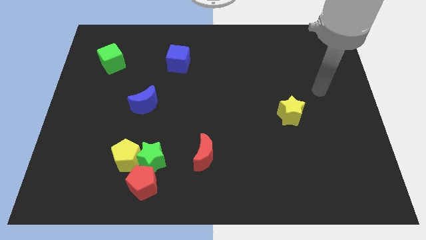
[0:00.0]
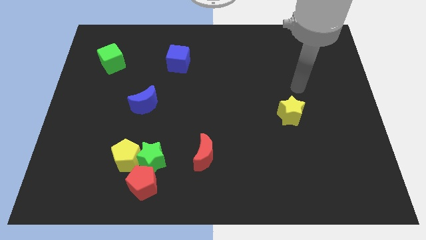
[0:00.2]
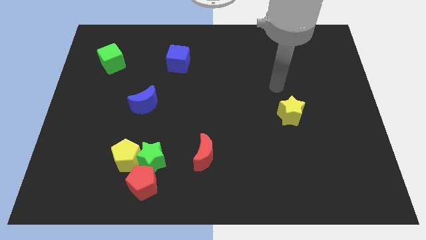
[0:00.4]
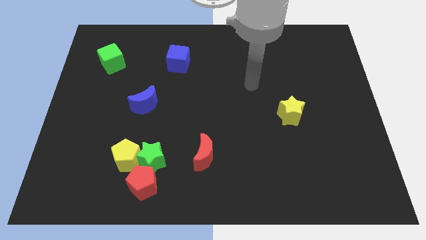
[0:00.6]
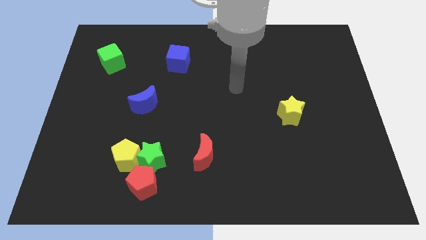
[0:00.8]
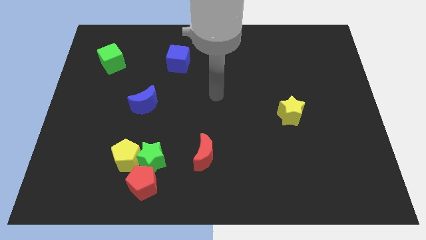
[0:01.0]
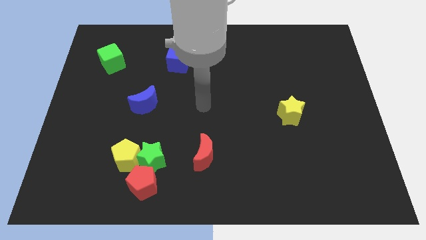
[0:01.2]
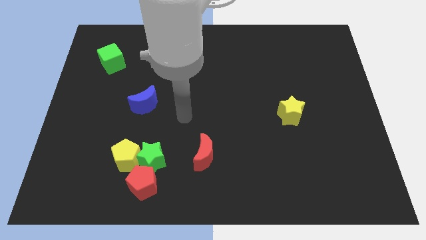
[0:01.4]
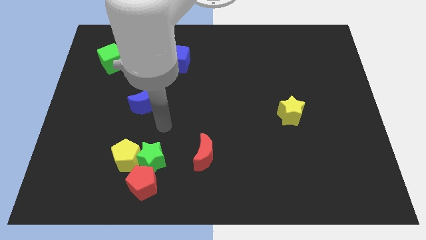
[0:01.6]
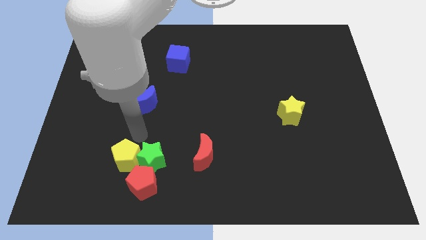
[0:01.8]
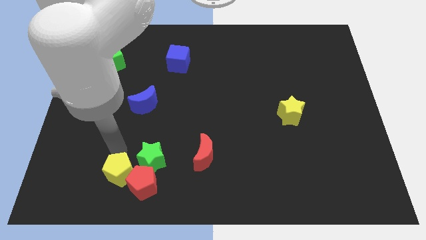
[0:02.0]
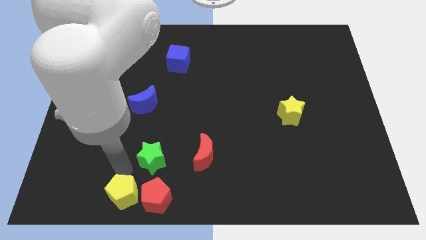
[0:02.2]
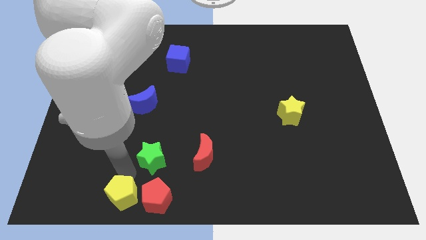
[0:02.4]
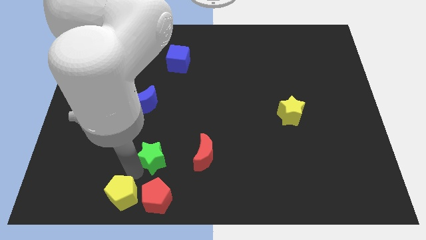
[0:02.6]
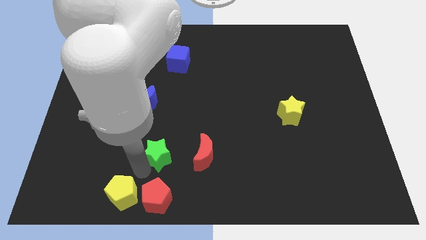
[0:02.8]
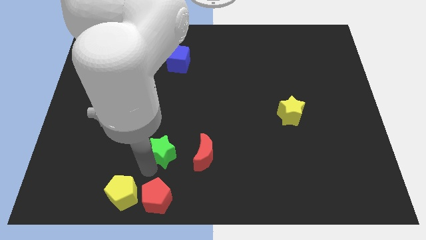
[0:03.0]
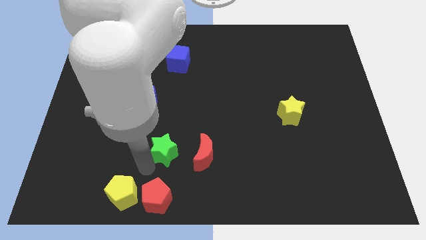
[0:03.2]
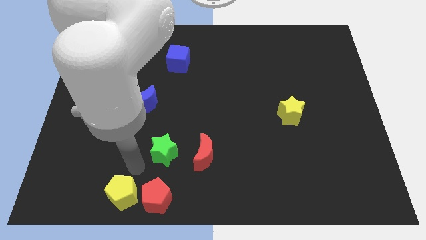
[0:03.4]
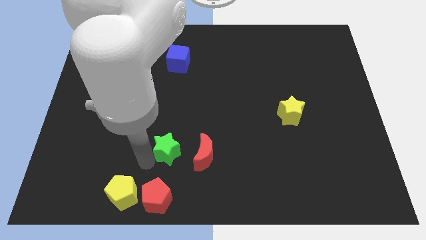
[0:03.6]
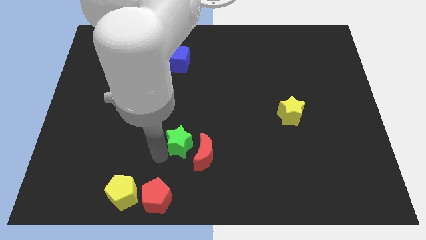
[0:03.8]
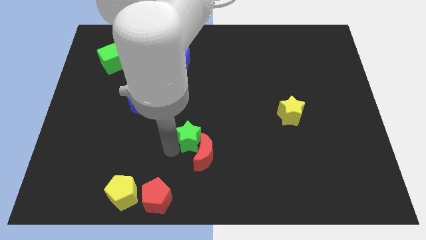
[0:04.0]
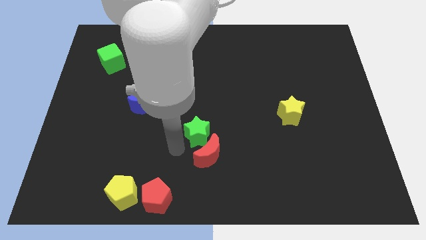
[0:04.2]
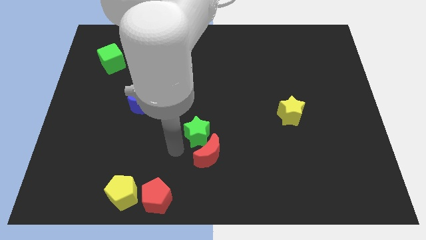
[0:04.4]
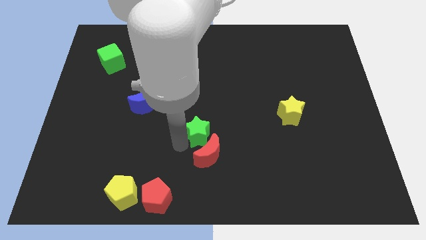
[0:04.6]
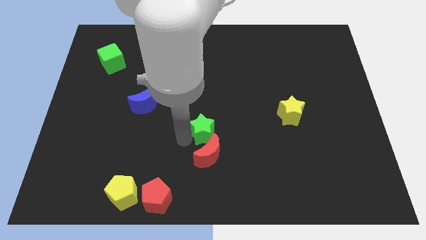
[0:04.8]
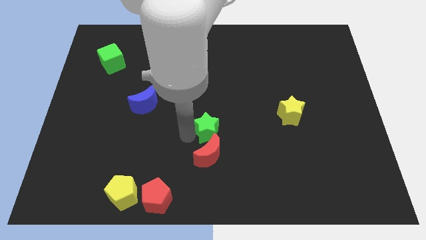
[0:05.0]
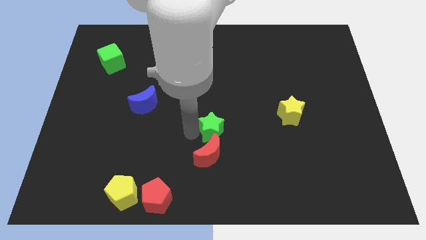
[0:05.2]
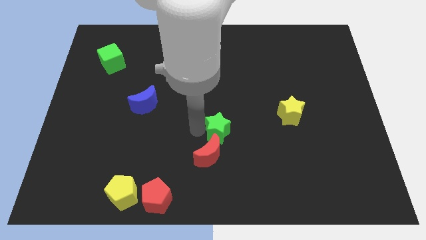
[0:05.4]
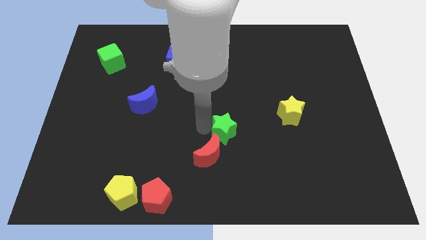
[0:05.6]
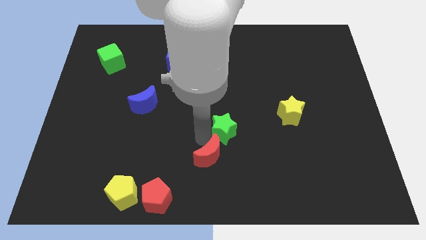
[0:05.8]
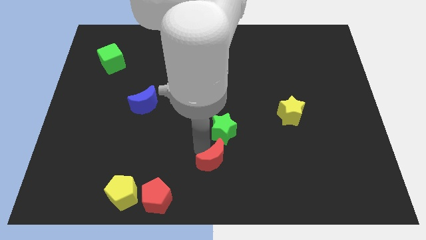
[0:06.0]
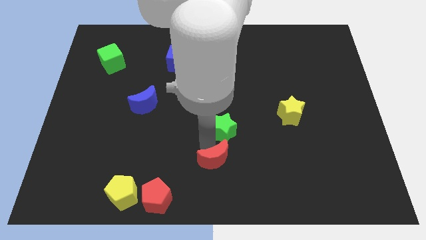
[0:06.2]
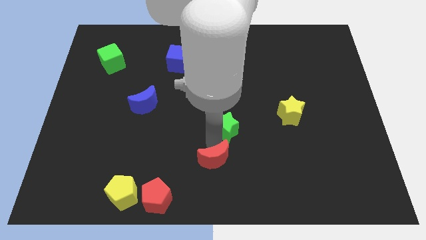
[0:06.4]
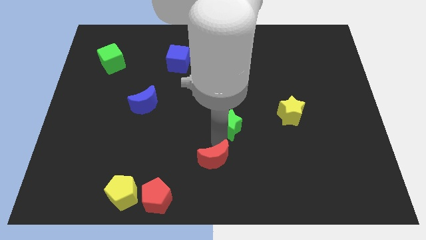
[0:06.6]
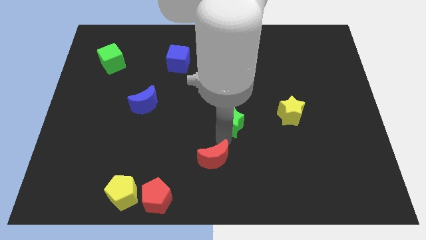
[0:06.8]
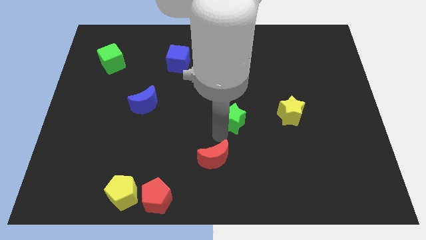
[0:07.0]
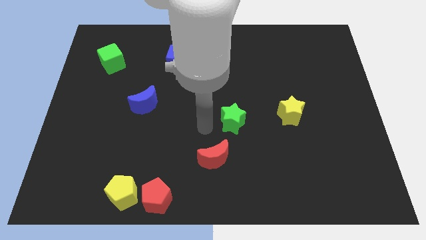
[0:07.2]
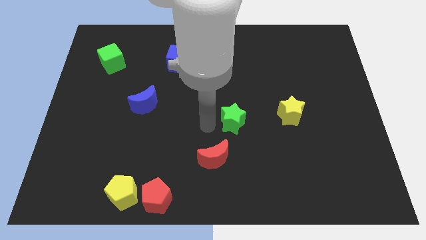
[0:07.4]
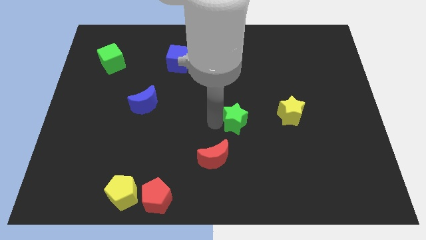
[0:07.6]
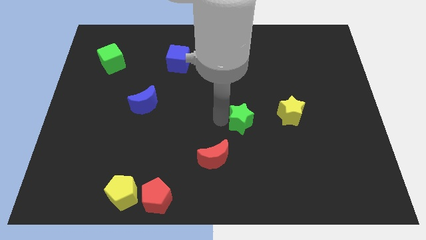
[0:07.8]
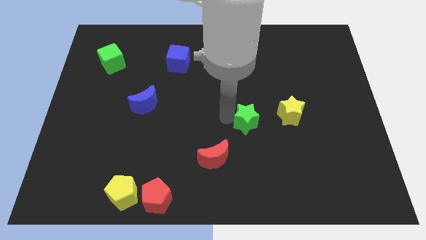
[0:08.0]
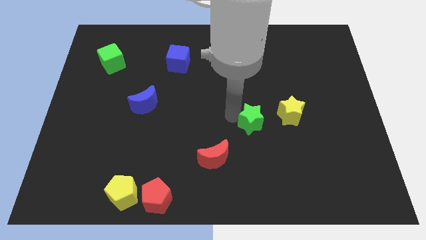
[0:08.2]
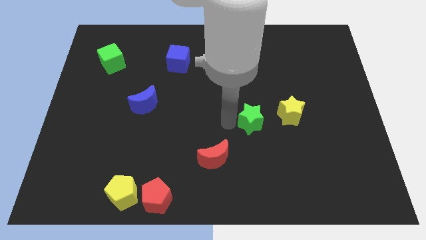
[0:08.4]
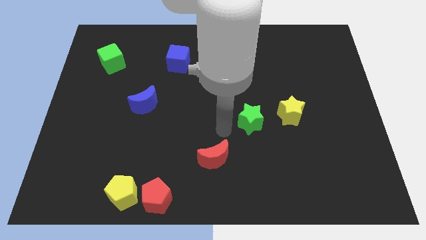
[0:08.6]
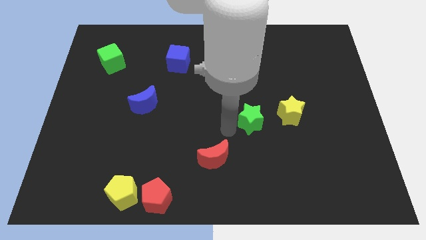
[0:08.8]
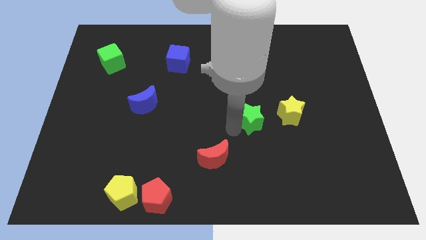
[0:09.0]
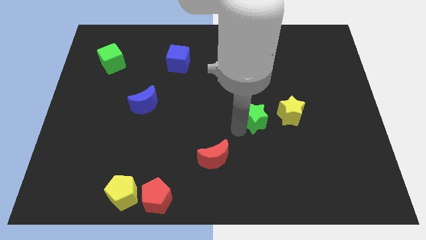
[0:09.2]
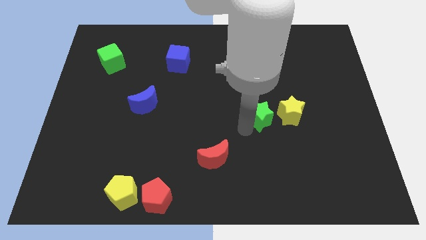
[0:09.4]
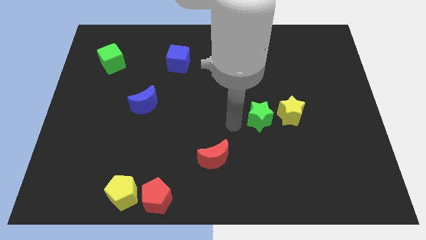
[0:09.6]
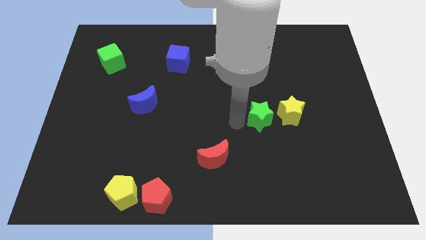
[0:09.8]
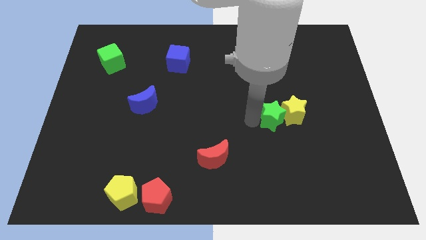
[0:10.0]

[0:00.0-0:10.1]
put the green star to the yellow star

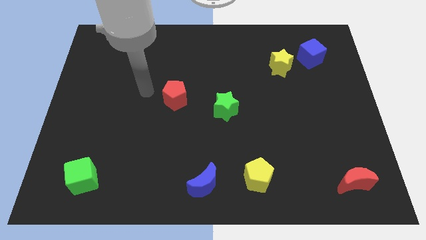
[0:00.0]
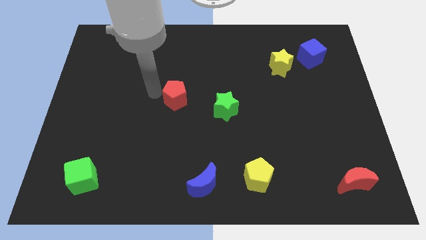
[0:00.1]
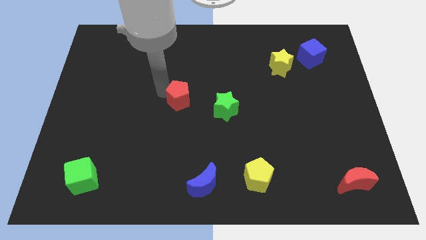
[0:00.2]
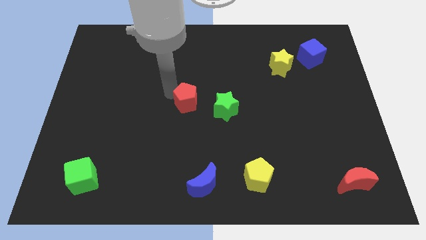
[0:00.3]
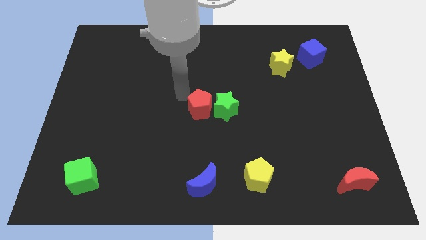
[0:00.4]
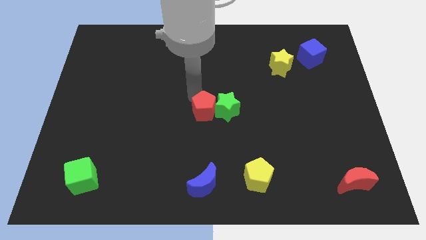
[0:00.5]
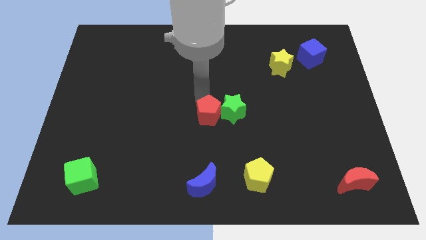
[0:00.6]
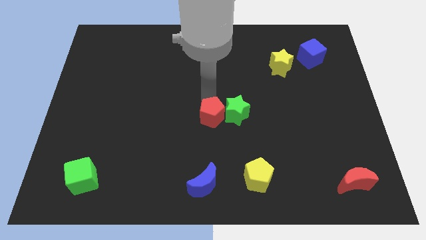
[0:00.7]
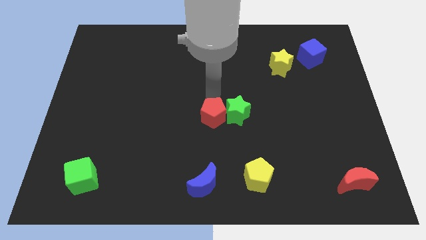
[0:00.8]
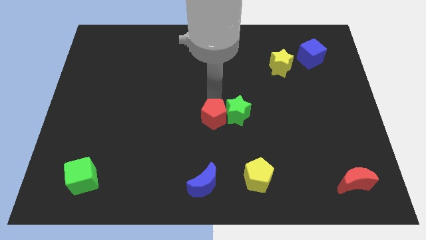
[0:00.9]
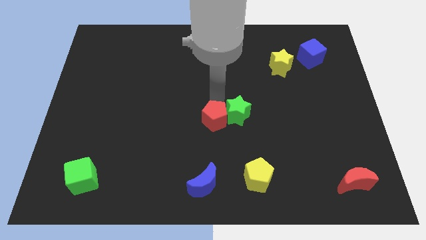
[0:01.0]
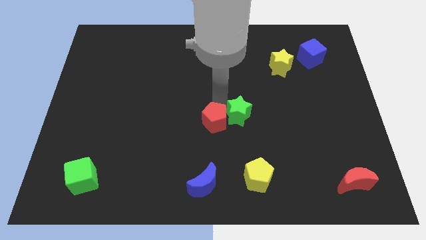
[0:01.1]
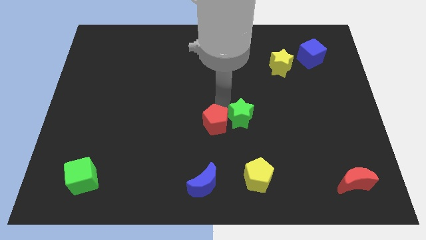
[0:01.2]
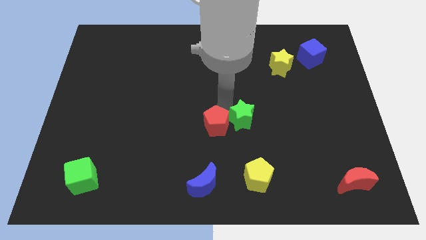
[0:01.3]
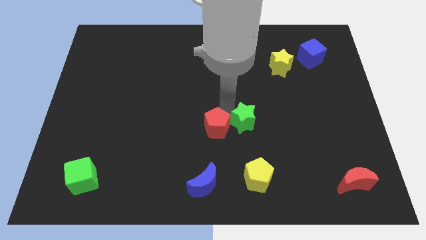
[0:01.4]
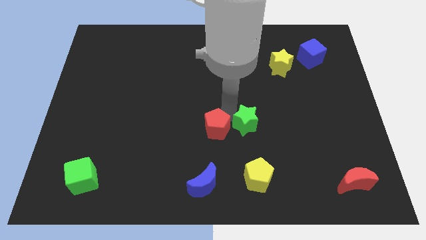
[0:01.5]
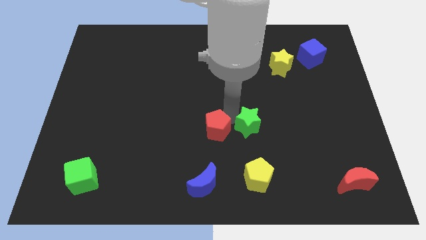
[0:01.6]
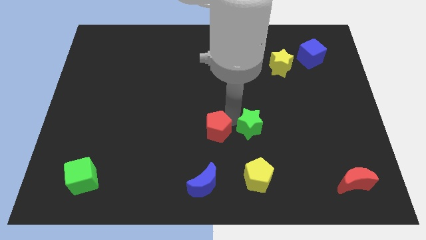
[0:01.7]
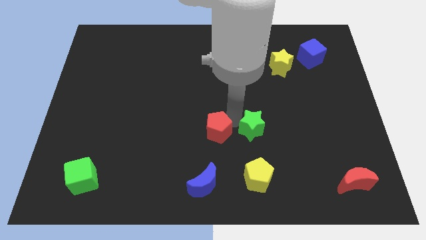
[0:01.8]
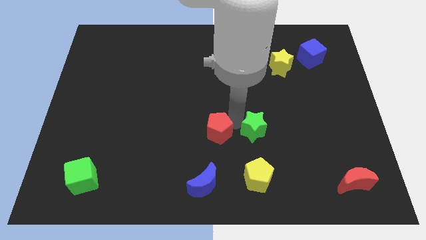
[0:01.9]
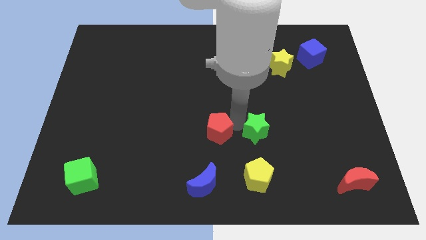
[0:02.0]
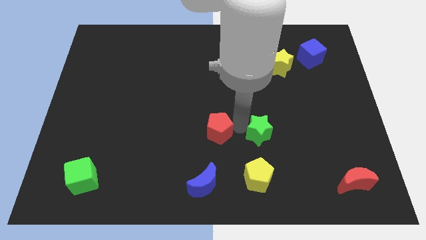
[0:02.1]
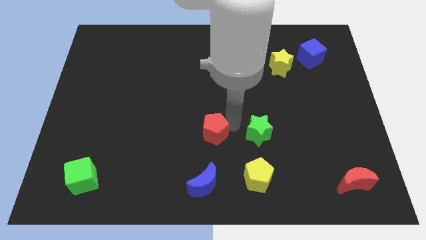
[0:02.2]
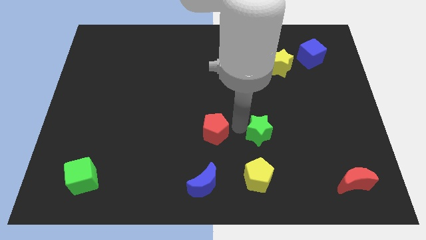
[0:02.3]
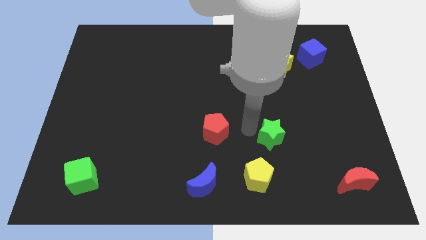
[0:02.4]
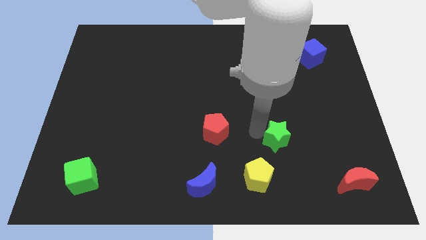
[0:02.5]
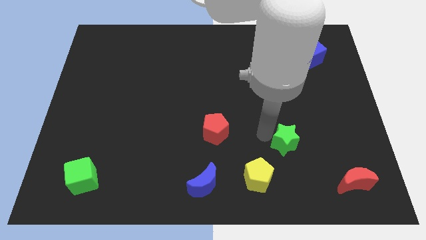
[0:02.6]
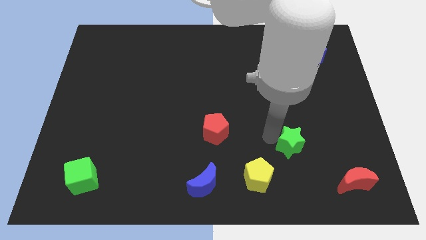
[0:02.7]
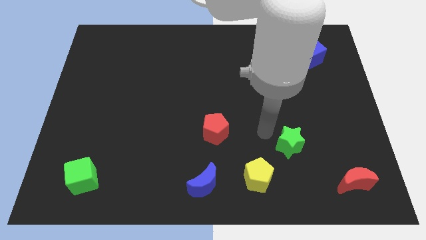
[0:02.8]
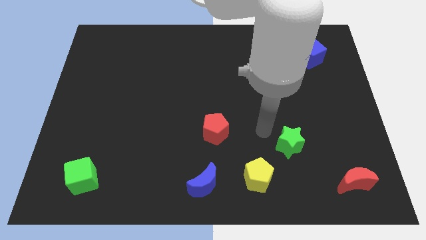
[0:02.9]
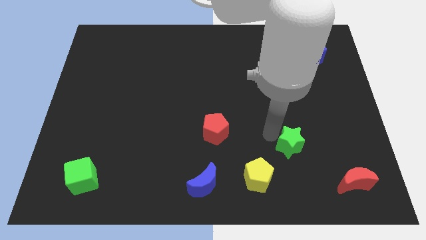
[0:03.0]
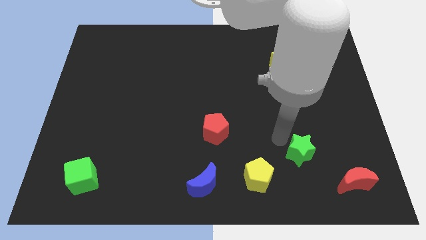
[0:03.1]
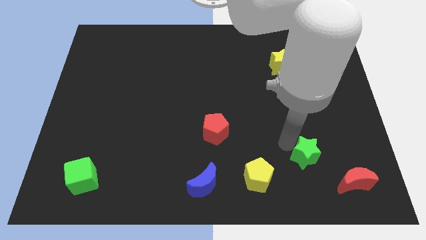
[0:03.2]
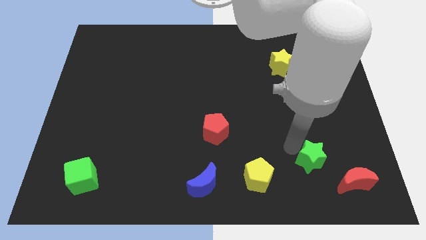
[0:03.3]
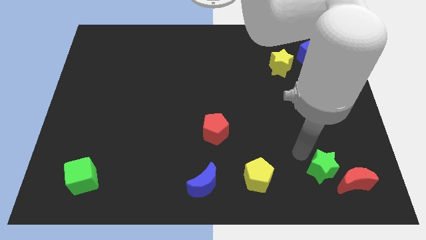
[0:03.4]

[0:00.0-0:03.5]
push the green star to the red moon
